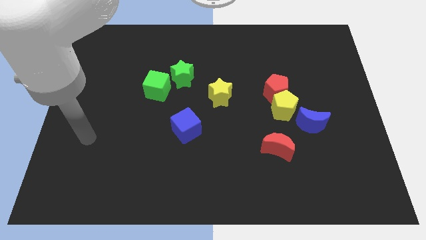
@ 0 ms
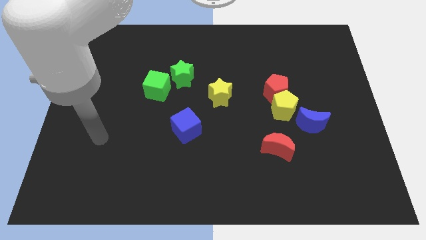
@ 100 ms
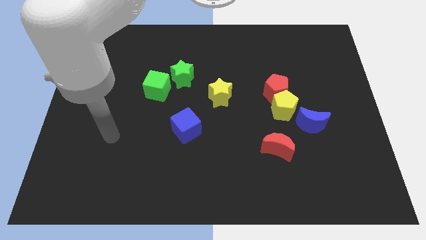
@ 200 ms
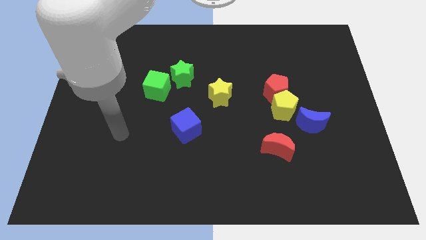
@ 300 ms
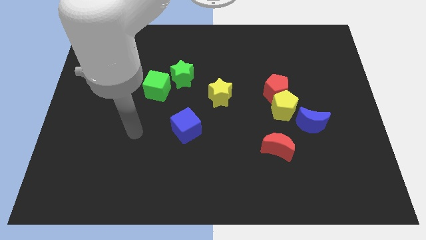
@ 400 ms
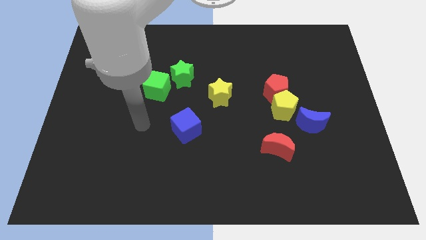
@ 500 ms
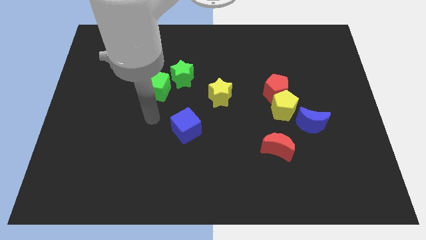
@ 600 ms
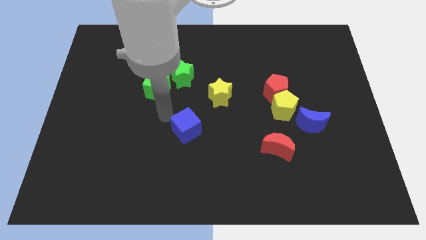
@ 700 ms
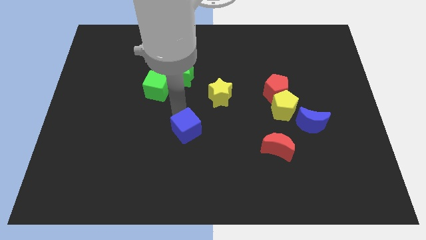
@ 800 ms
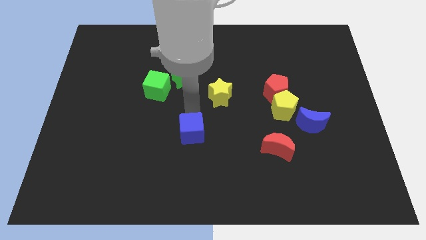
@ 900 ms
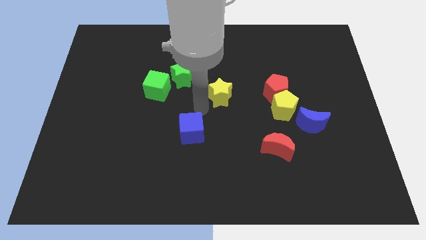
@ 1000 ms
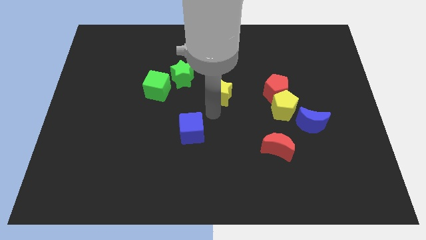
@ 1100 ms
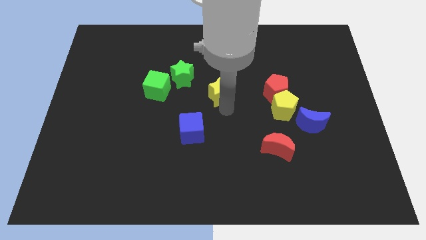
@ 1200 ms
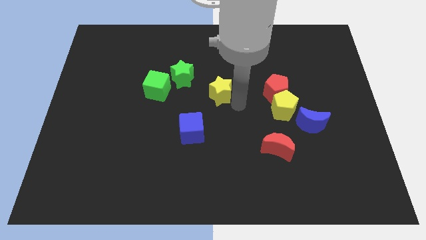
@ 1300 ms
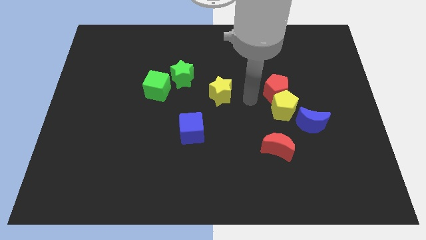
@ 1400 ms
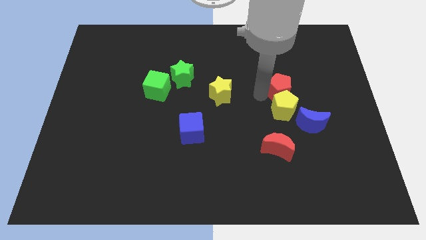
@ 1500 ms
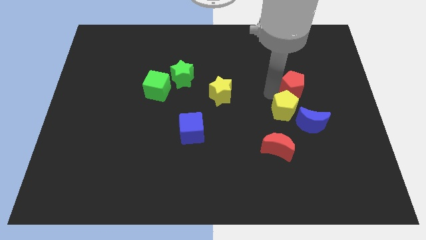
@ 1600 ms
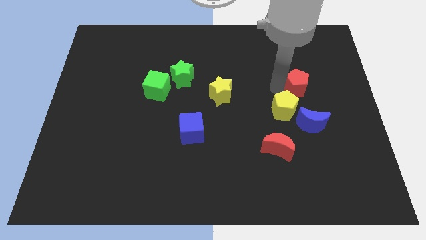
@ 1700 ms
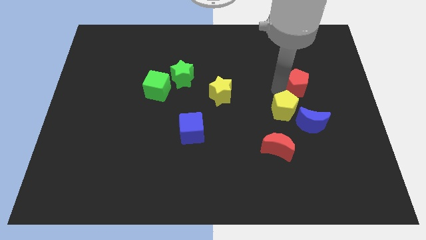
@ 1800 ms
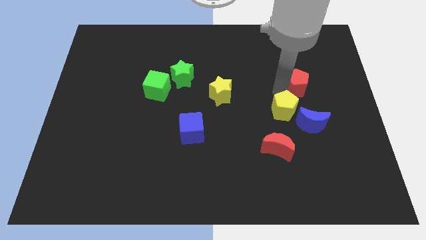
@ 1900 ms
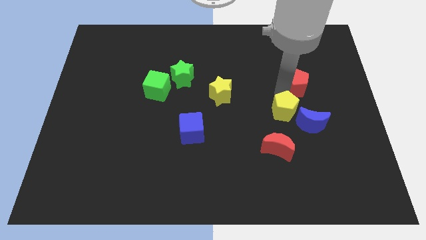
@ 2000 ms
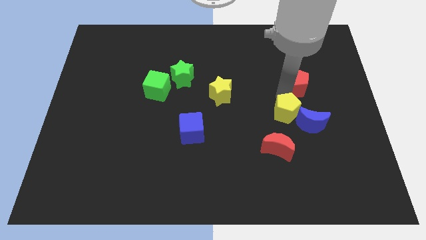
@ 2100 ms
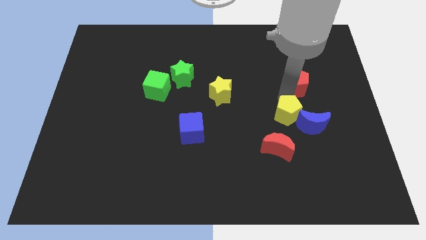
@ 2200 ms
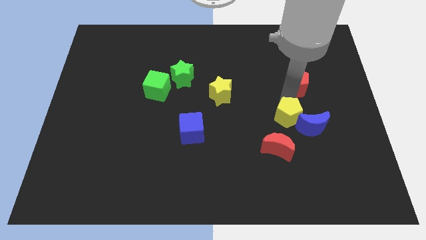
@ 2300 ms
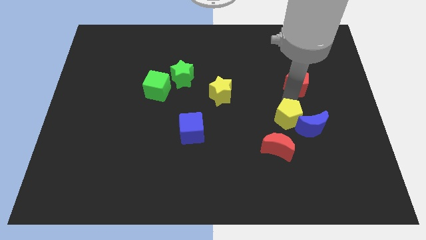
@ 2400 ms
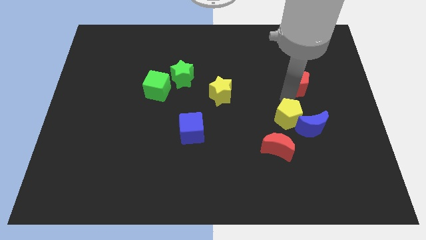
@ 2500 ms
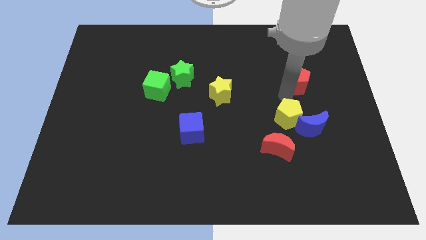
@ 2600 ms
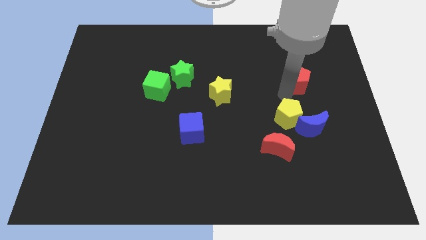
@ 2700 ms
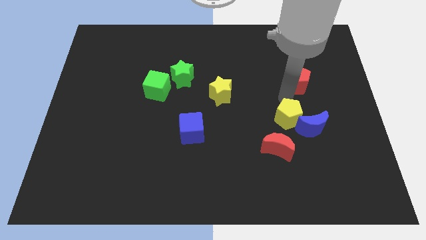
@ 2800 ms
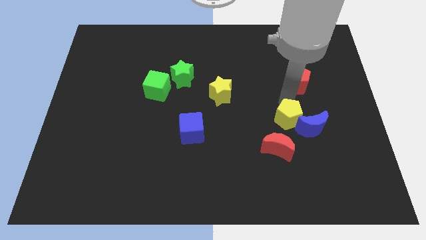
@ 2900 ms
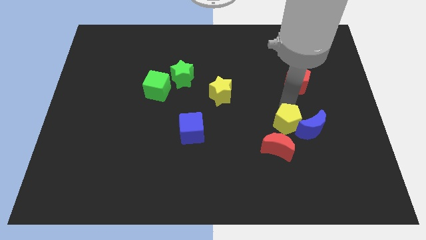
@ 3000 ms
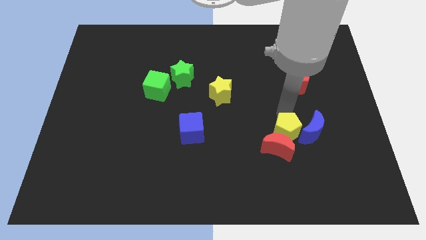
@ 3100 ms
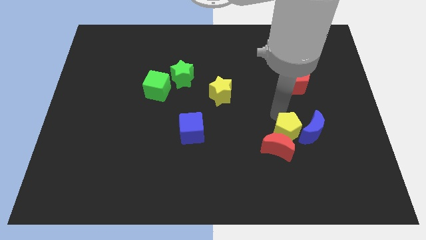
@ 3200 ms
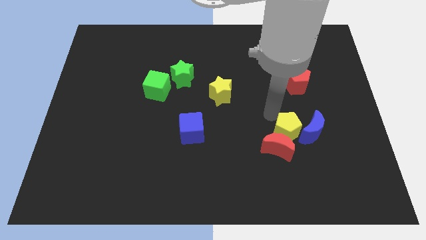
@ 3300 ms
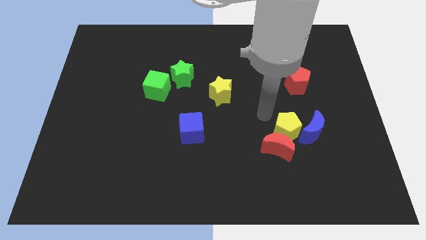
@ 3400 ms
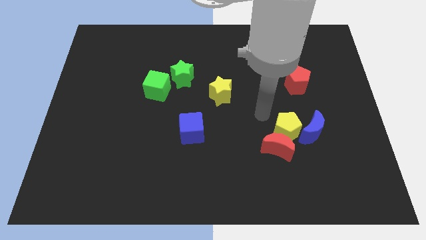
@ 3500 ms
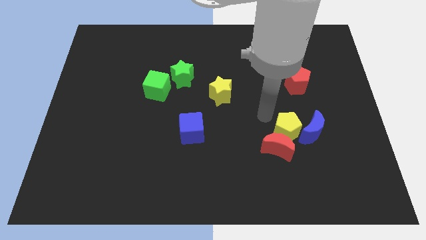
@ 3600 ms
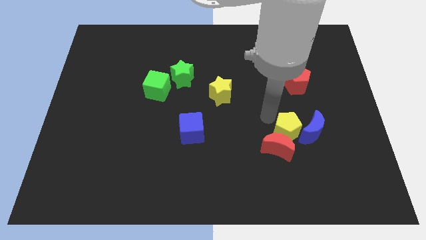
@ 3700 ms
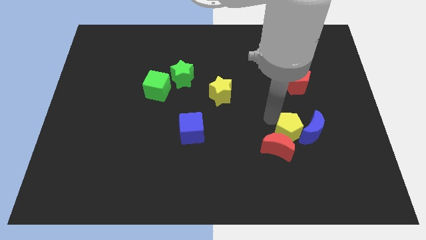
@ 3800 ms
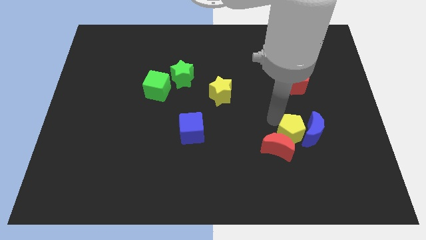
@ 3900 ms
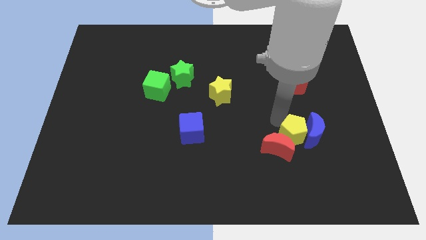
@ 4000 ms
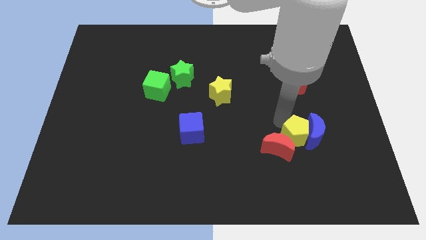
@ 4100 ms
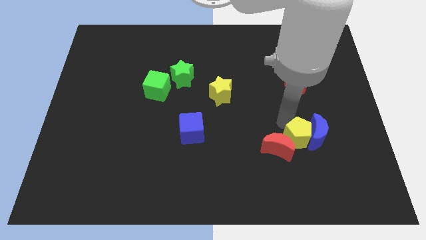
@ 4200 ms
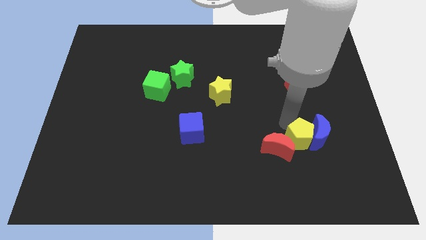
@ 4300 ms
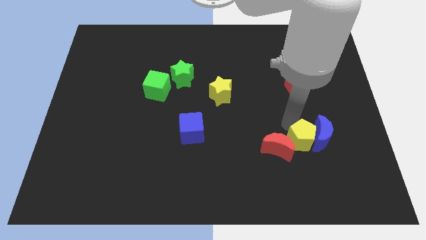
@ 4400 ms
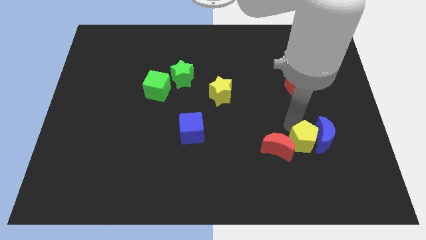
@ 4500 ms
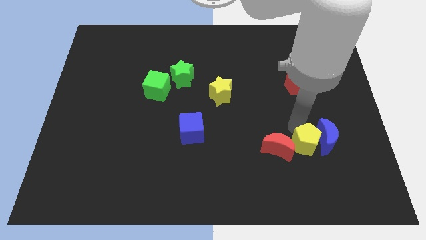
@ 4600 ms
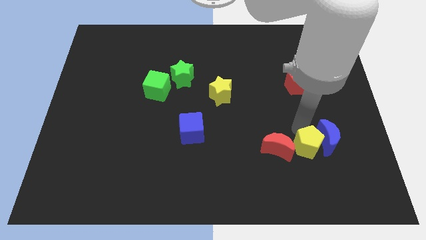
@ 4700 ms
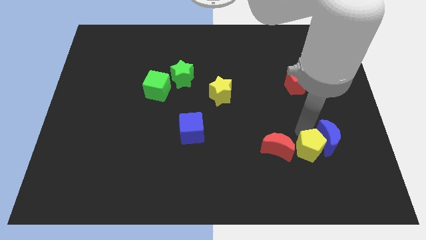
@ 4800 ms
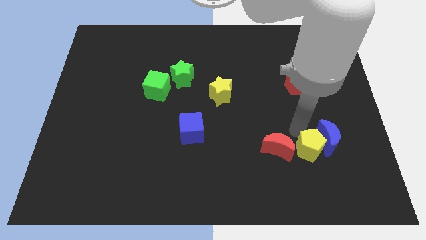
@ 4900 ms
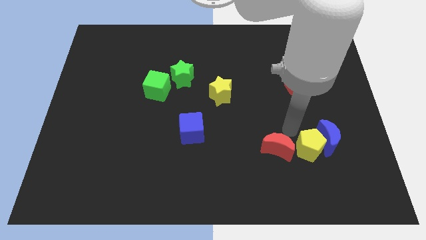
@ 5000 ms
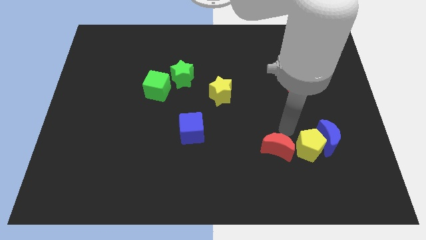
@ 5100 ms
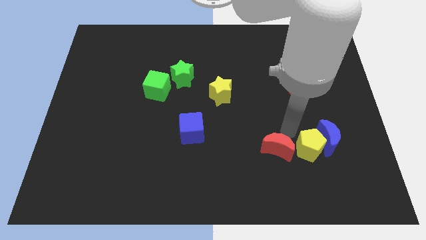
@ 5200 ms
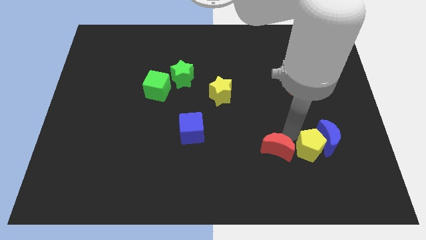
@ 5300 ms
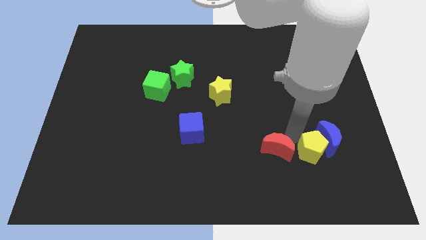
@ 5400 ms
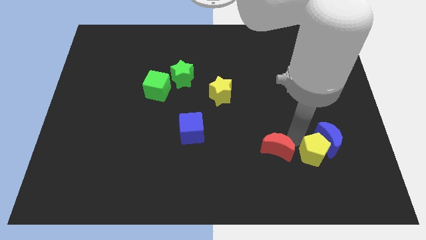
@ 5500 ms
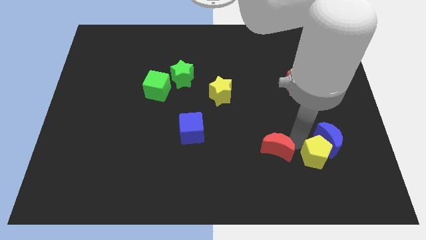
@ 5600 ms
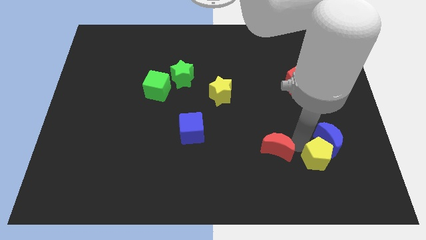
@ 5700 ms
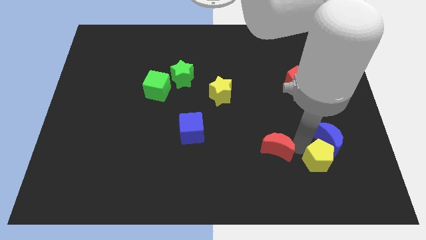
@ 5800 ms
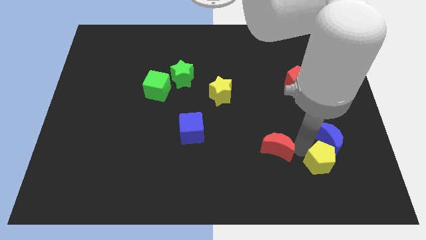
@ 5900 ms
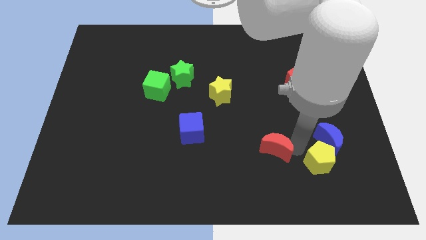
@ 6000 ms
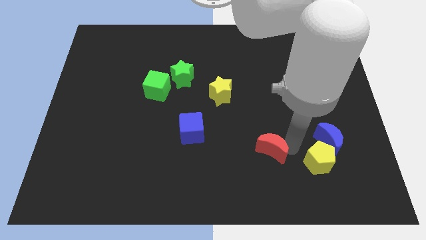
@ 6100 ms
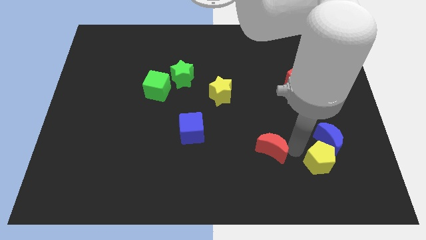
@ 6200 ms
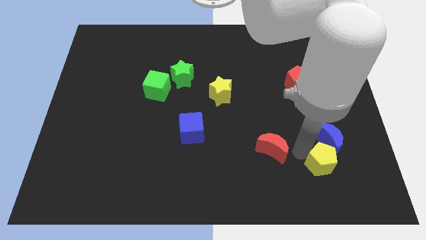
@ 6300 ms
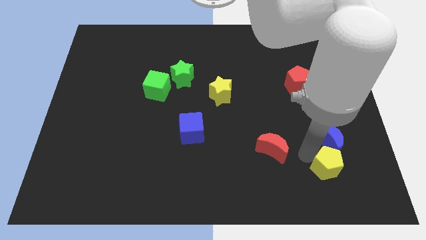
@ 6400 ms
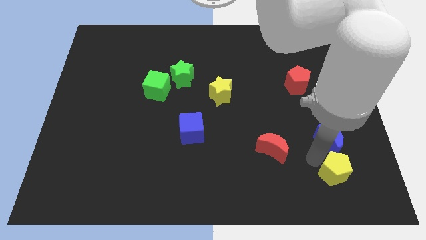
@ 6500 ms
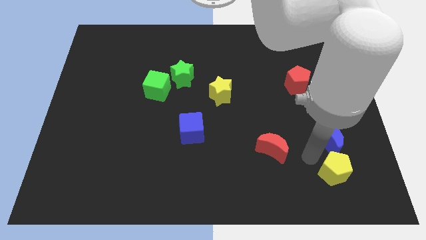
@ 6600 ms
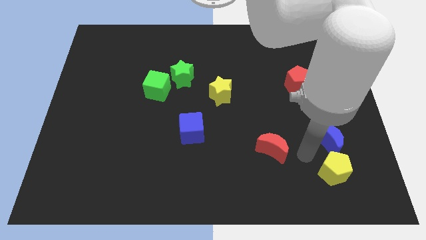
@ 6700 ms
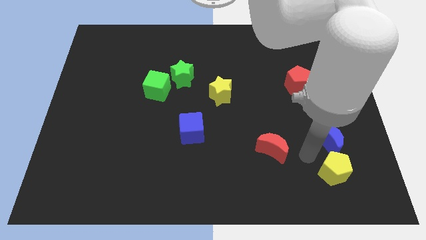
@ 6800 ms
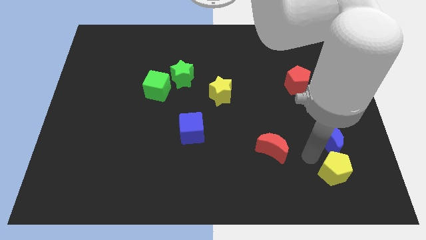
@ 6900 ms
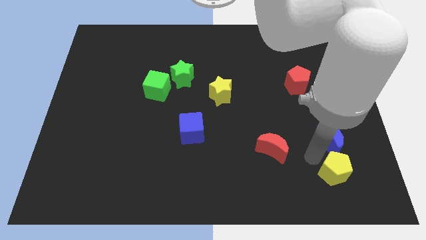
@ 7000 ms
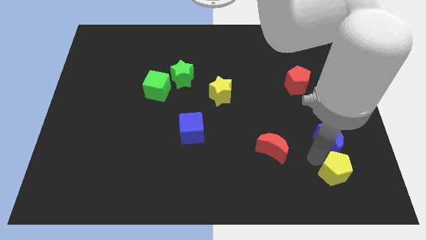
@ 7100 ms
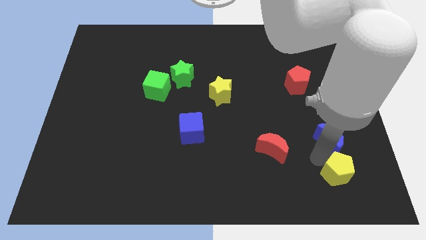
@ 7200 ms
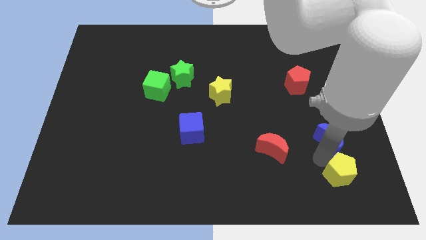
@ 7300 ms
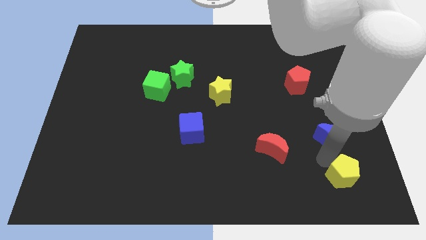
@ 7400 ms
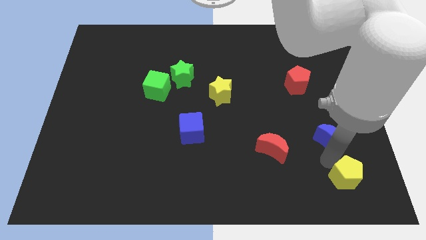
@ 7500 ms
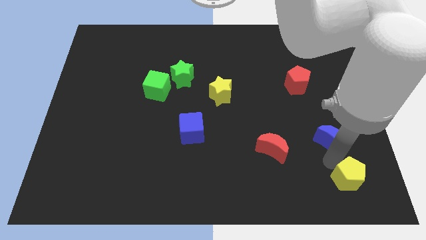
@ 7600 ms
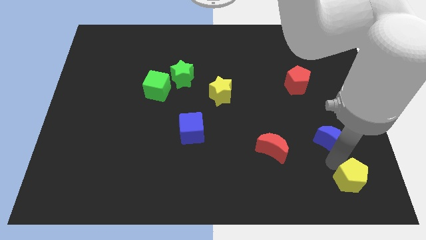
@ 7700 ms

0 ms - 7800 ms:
move the yellow pentagon to the bottom right of the board
